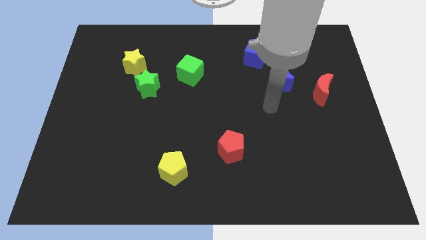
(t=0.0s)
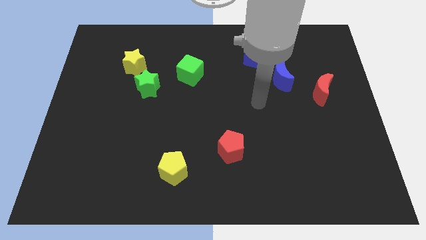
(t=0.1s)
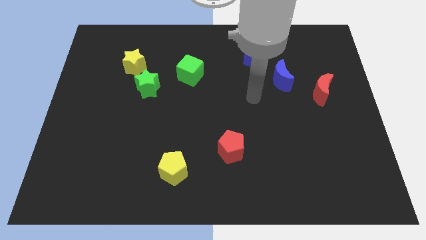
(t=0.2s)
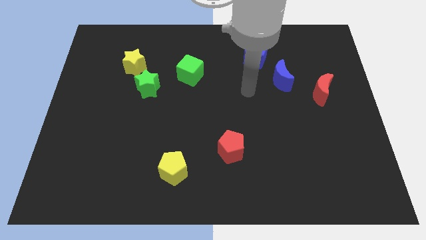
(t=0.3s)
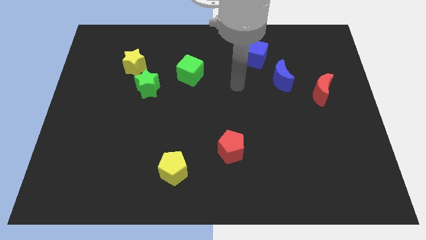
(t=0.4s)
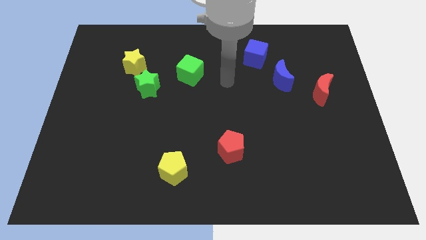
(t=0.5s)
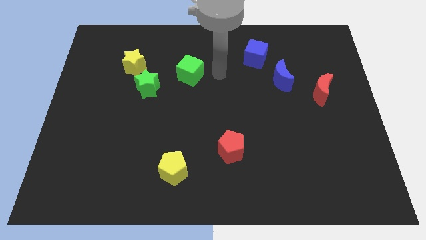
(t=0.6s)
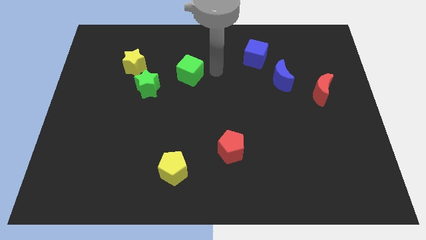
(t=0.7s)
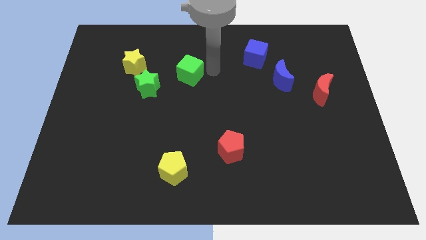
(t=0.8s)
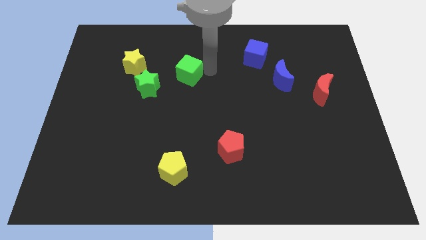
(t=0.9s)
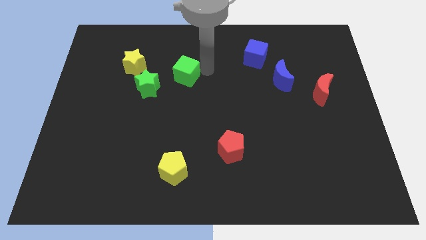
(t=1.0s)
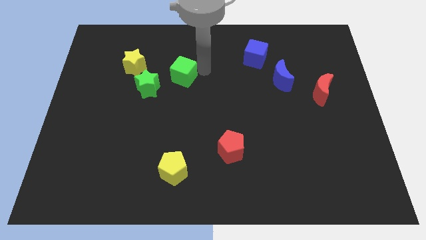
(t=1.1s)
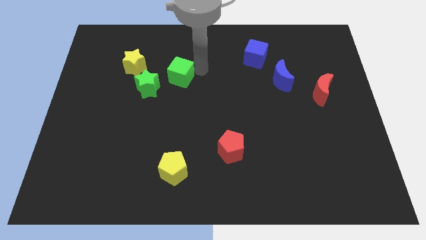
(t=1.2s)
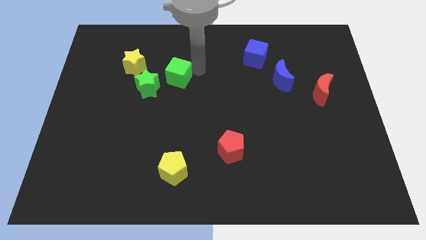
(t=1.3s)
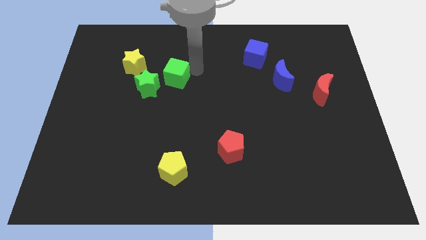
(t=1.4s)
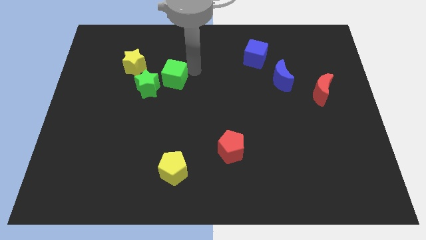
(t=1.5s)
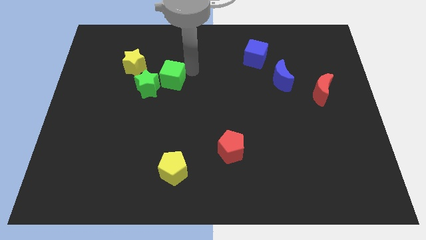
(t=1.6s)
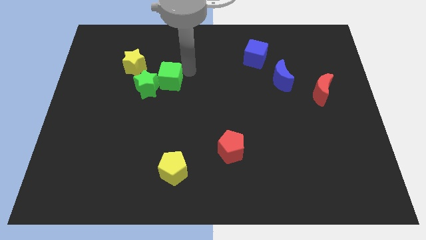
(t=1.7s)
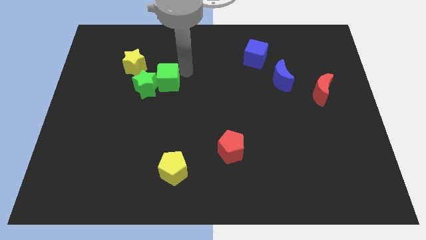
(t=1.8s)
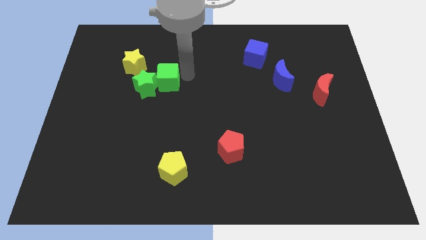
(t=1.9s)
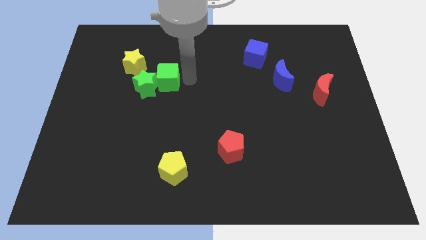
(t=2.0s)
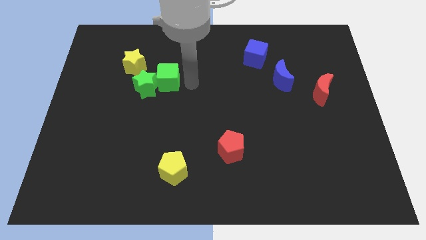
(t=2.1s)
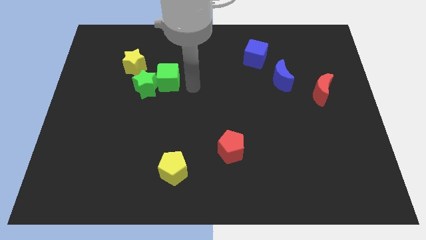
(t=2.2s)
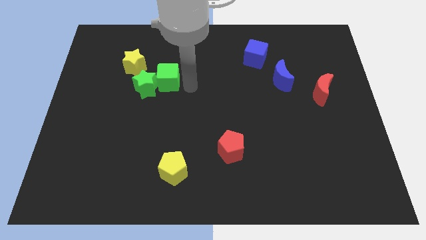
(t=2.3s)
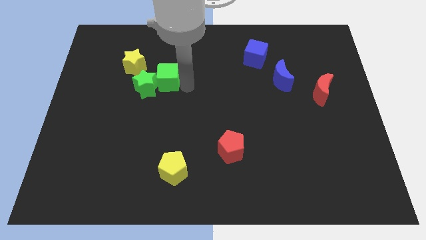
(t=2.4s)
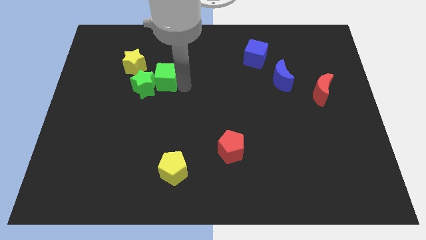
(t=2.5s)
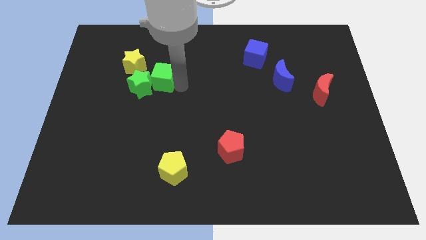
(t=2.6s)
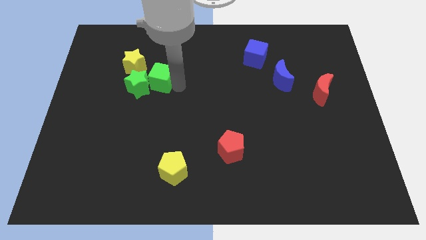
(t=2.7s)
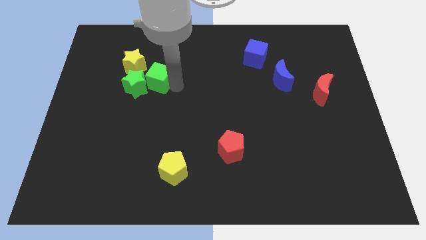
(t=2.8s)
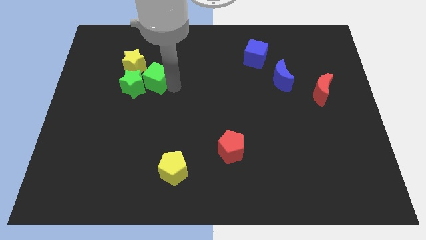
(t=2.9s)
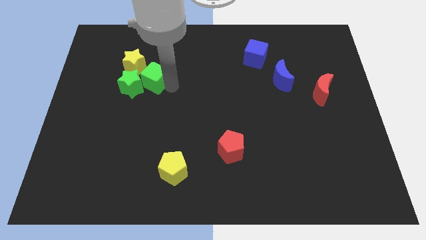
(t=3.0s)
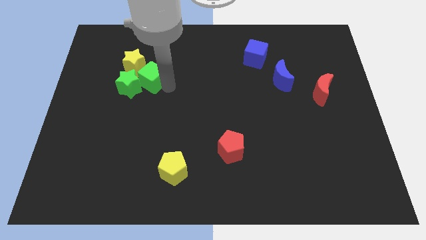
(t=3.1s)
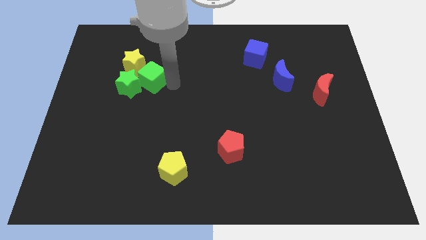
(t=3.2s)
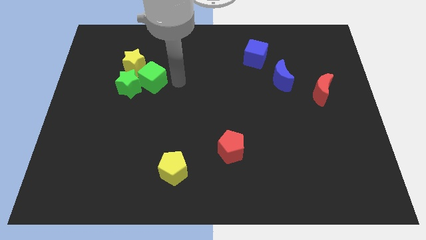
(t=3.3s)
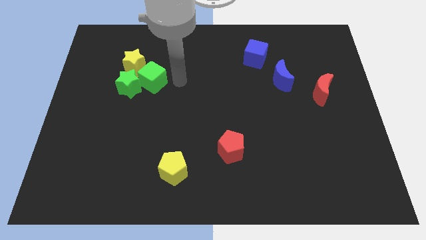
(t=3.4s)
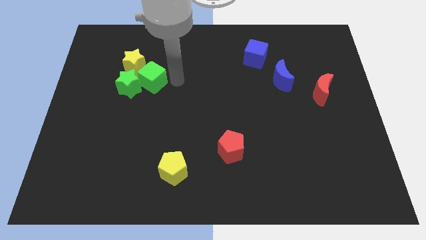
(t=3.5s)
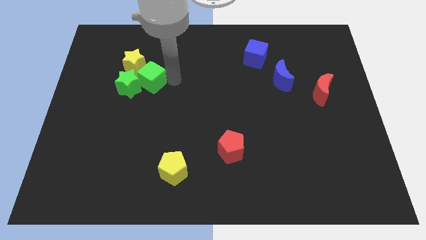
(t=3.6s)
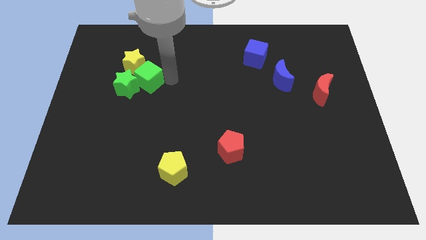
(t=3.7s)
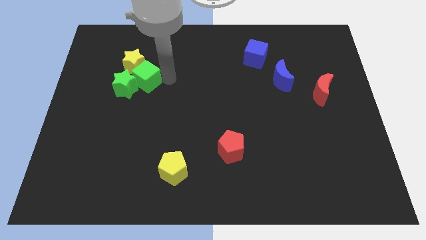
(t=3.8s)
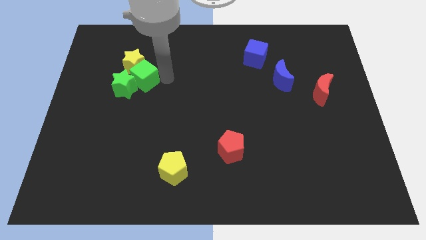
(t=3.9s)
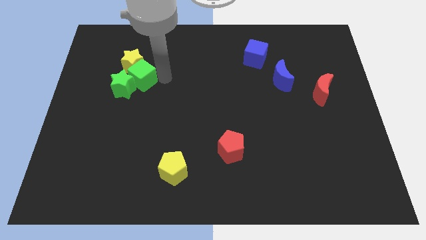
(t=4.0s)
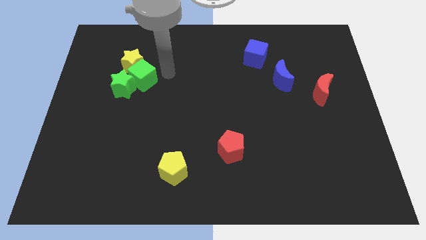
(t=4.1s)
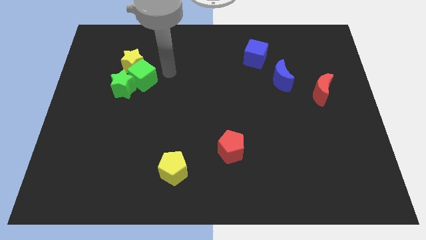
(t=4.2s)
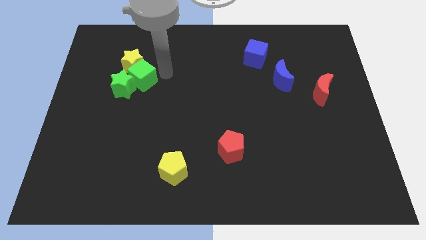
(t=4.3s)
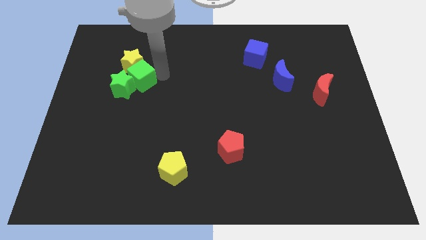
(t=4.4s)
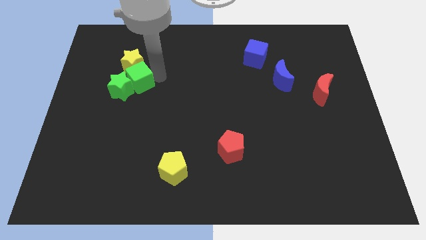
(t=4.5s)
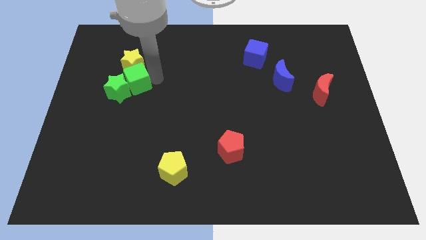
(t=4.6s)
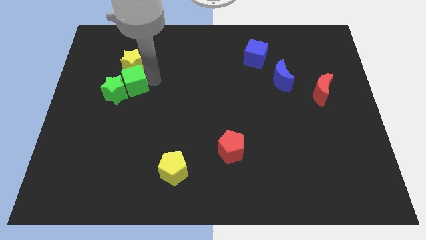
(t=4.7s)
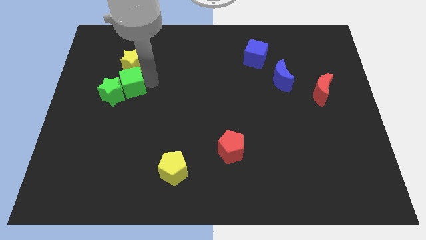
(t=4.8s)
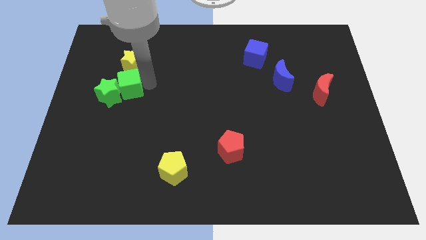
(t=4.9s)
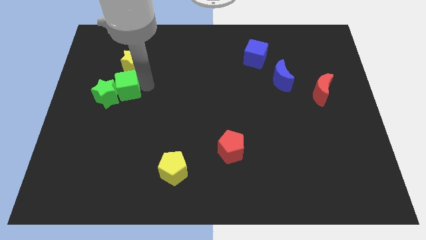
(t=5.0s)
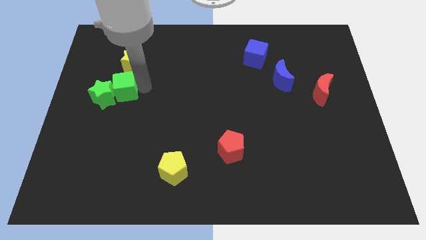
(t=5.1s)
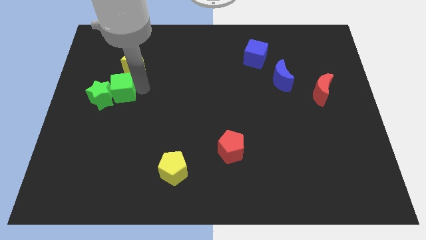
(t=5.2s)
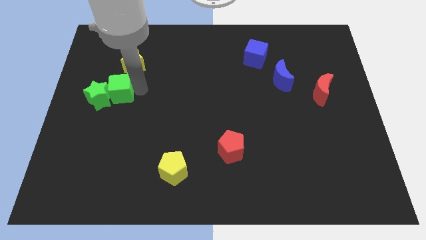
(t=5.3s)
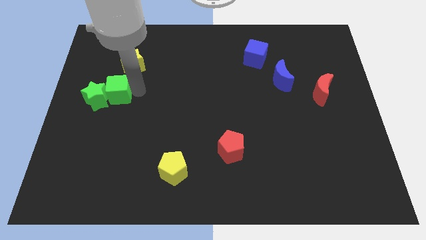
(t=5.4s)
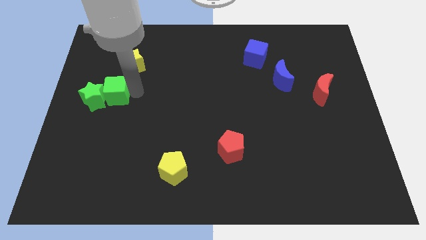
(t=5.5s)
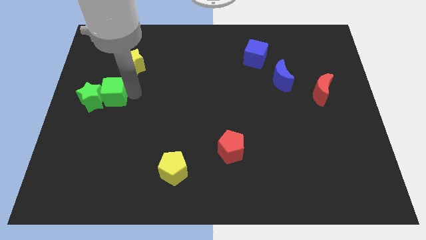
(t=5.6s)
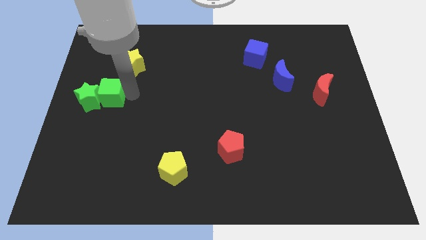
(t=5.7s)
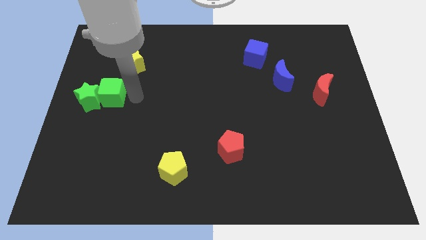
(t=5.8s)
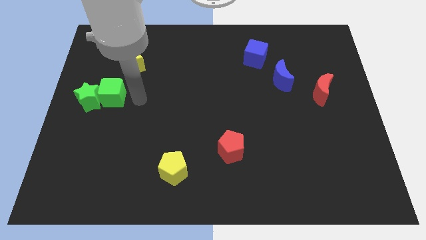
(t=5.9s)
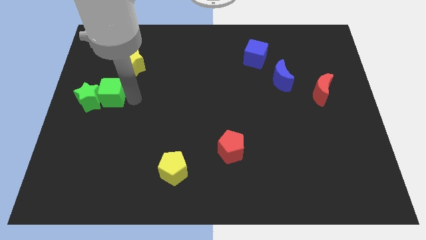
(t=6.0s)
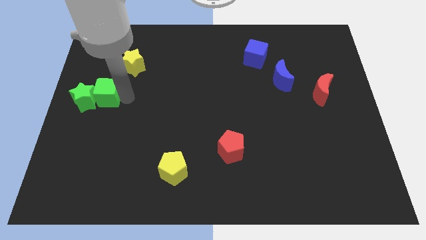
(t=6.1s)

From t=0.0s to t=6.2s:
push the green cube to the left side

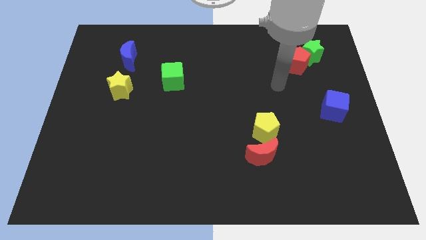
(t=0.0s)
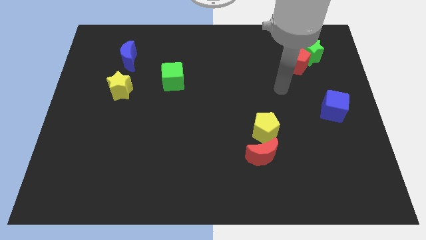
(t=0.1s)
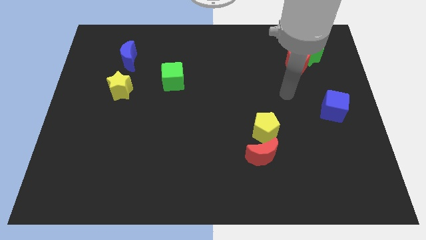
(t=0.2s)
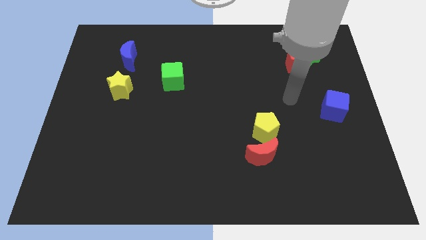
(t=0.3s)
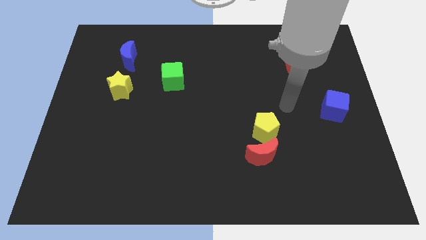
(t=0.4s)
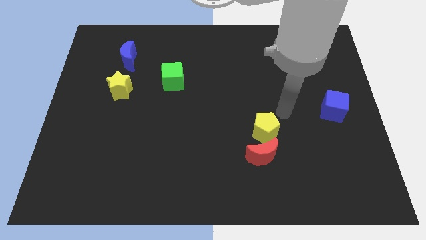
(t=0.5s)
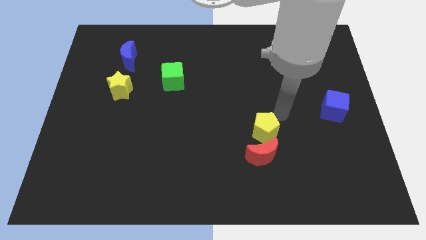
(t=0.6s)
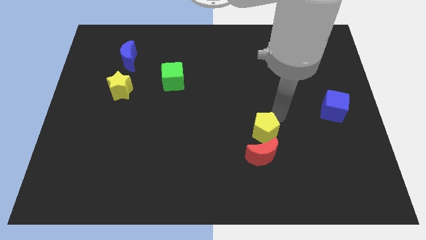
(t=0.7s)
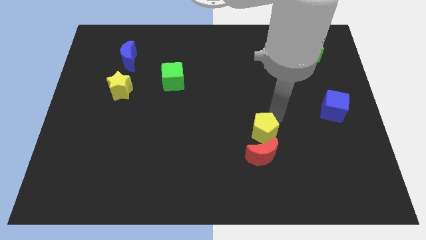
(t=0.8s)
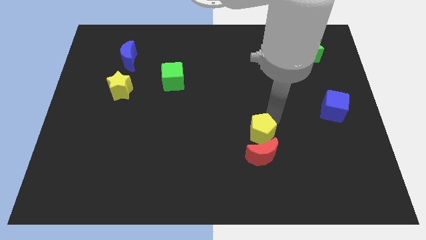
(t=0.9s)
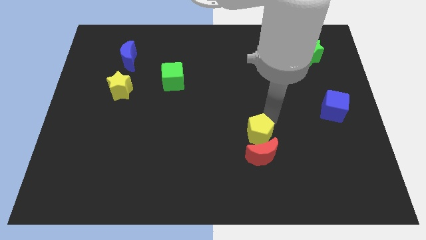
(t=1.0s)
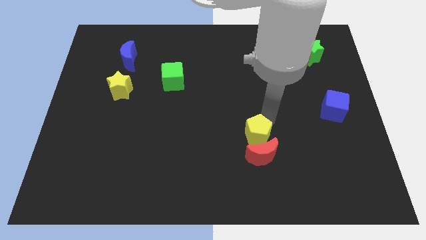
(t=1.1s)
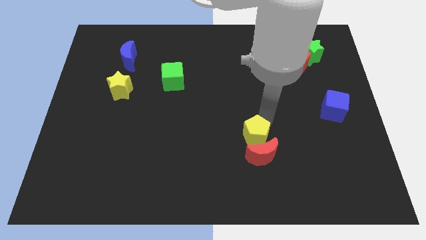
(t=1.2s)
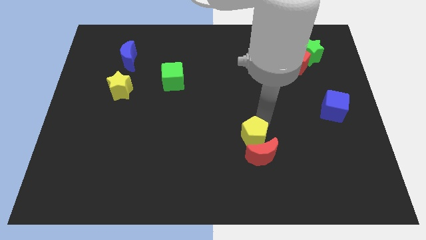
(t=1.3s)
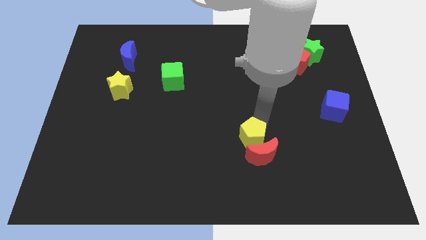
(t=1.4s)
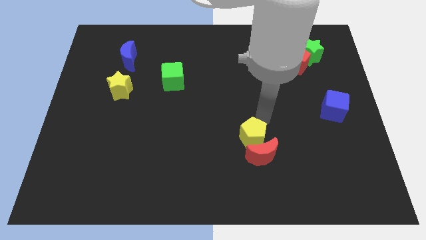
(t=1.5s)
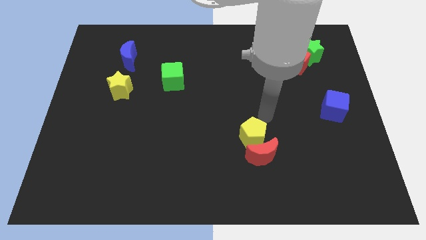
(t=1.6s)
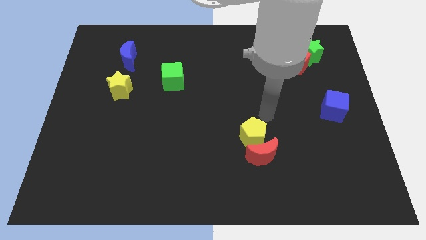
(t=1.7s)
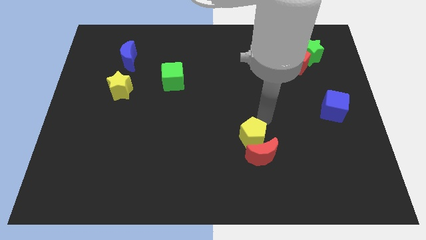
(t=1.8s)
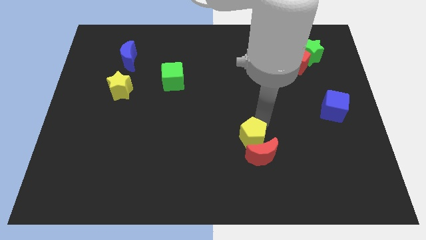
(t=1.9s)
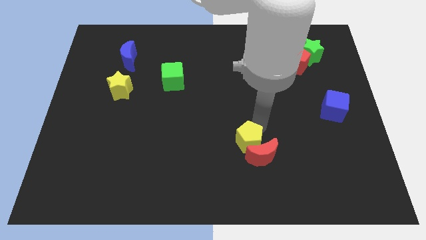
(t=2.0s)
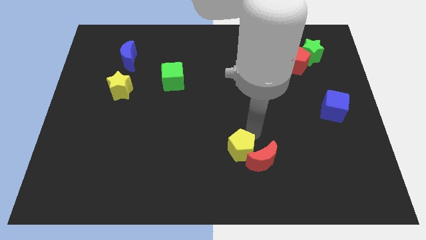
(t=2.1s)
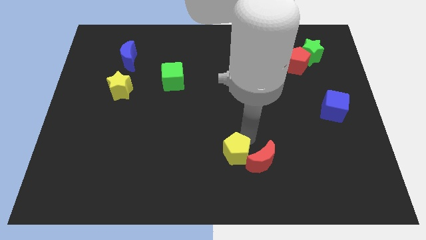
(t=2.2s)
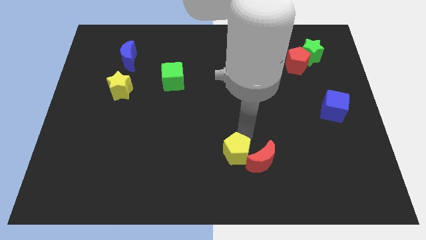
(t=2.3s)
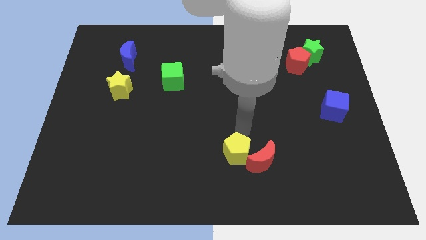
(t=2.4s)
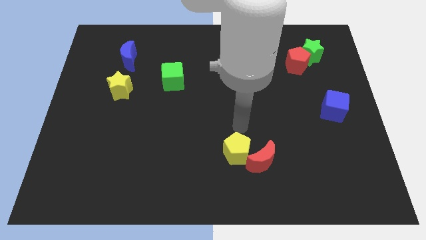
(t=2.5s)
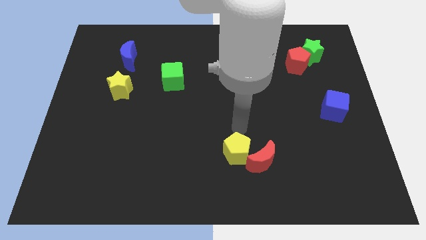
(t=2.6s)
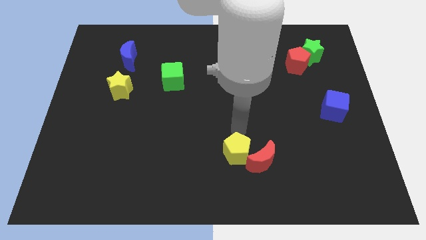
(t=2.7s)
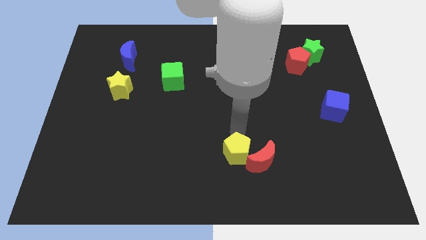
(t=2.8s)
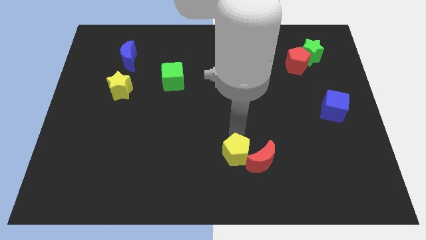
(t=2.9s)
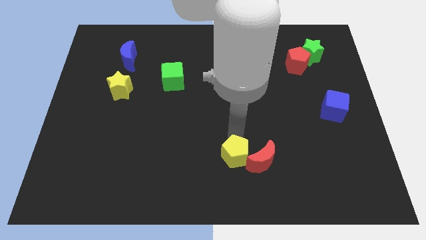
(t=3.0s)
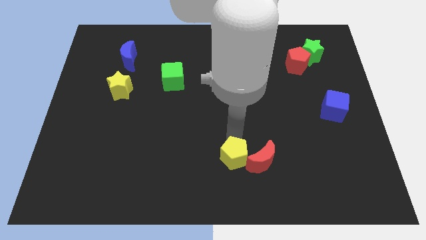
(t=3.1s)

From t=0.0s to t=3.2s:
slide the yellow pentagon to the bottom
